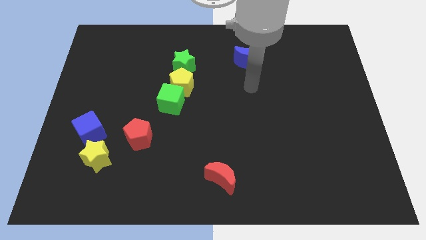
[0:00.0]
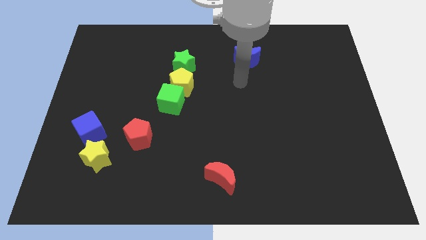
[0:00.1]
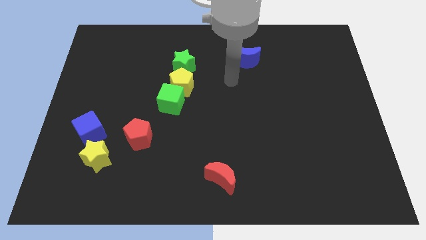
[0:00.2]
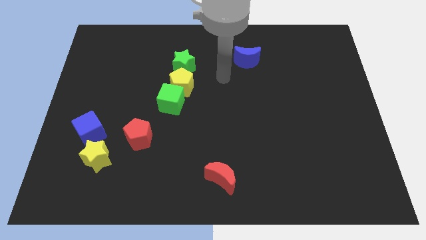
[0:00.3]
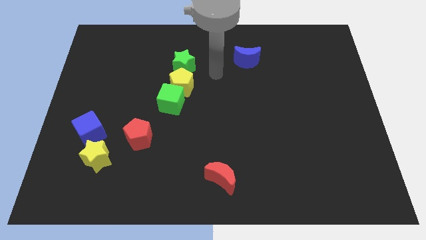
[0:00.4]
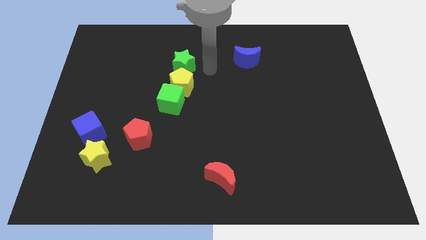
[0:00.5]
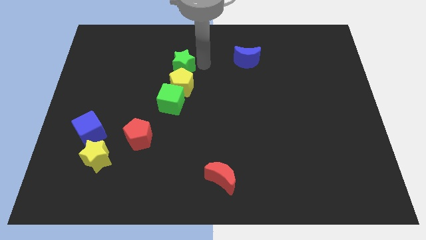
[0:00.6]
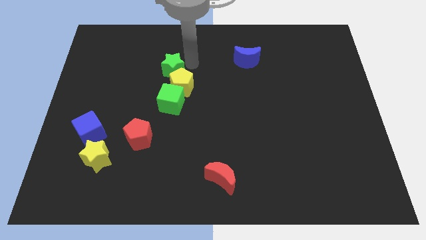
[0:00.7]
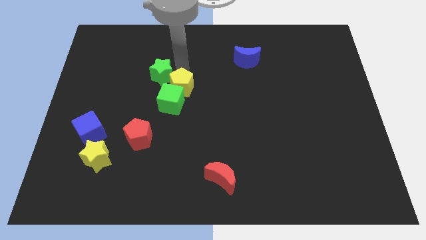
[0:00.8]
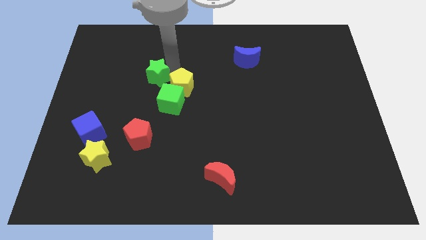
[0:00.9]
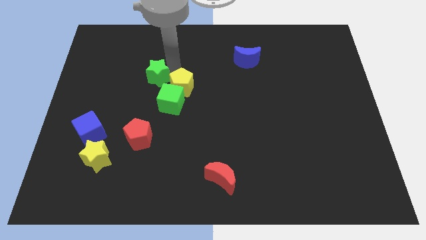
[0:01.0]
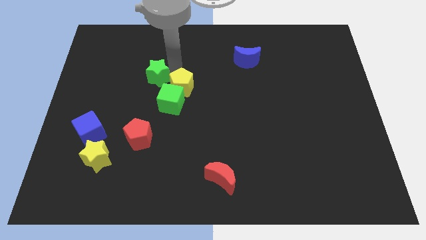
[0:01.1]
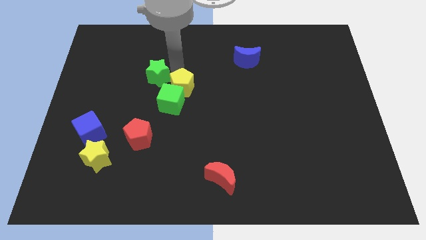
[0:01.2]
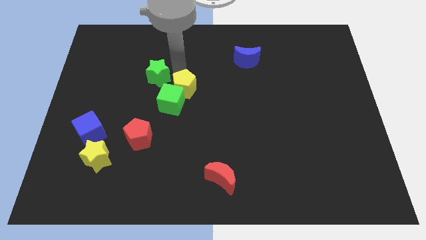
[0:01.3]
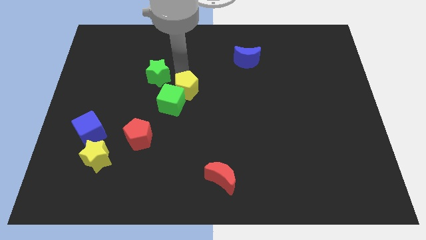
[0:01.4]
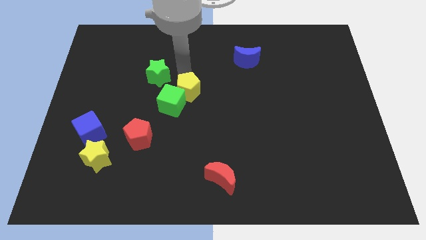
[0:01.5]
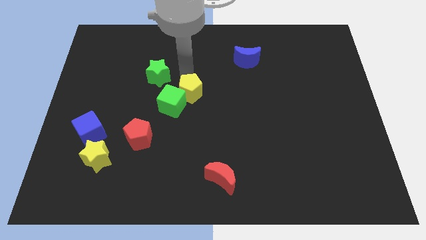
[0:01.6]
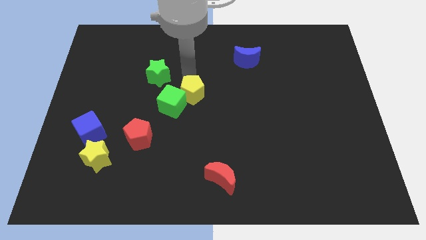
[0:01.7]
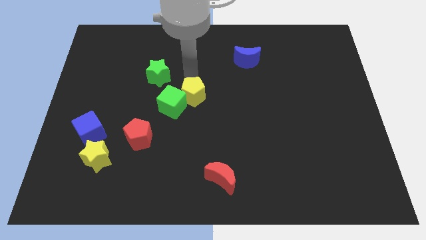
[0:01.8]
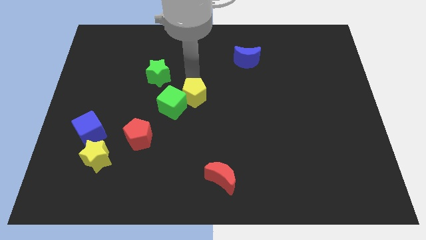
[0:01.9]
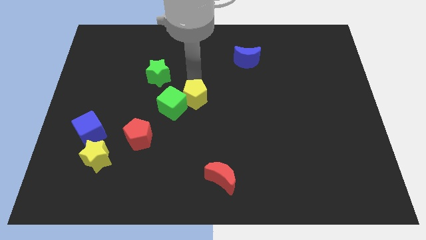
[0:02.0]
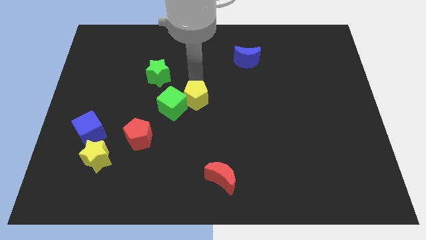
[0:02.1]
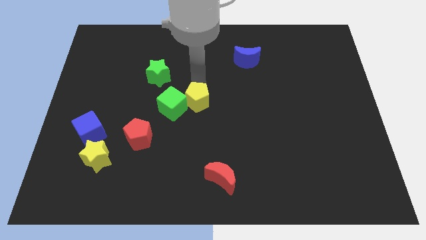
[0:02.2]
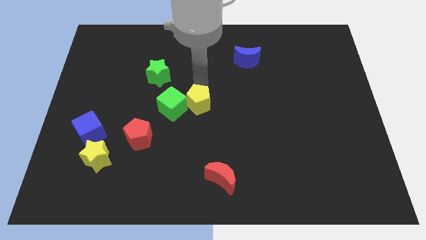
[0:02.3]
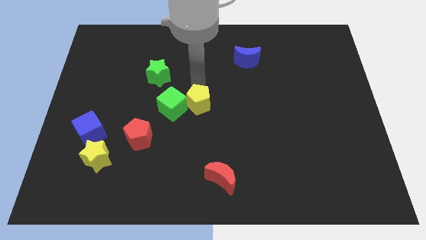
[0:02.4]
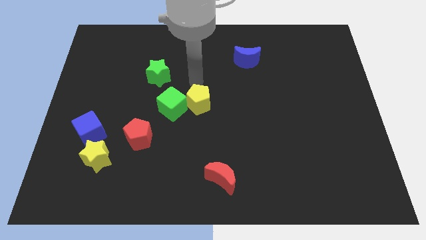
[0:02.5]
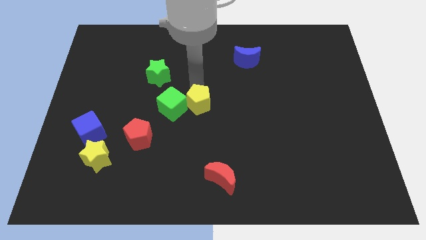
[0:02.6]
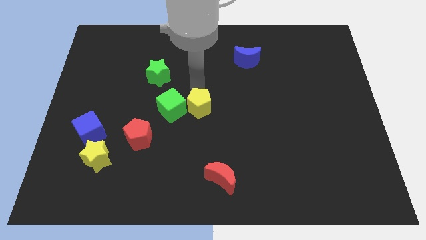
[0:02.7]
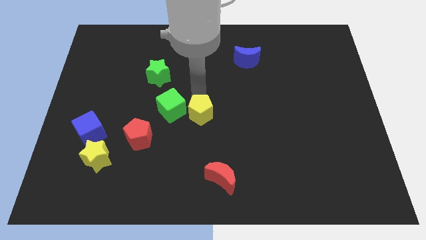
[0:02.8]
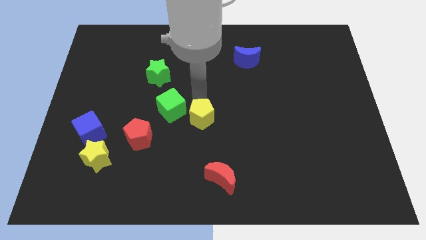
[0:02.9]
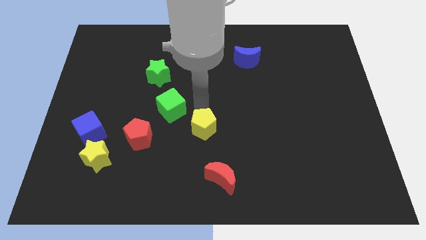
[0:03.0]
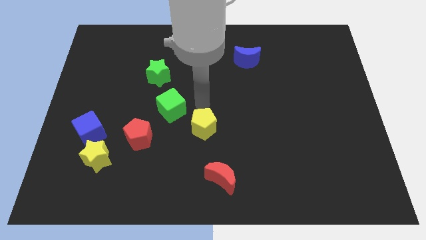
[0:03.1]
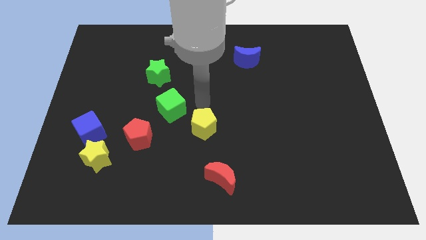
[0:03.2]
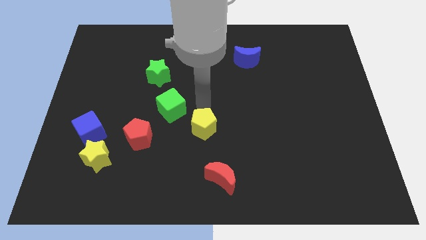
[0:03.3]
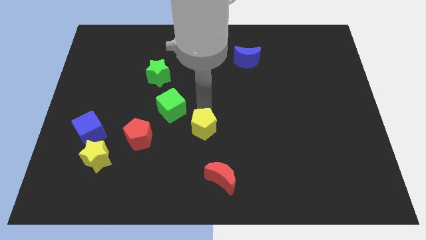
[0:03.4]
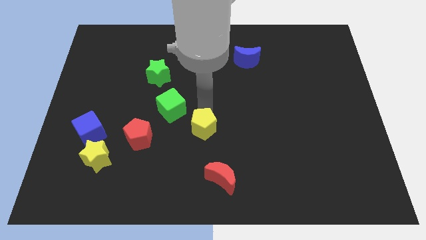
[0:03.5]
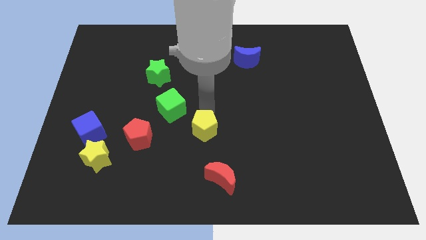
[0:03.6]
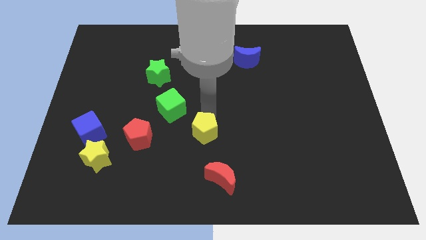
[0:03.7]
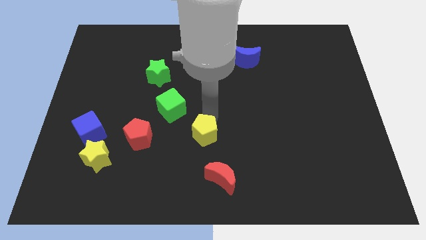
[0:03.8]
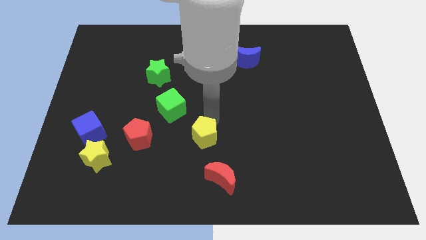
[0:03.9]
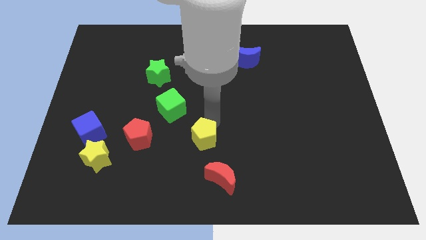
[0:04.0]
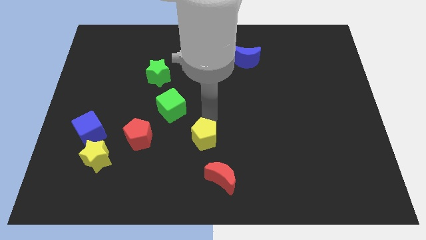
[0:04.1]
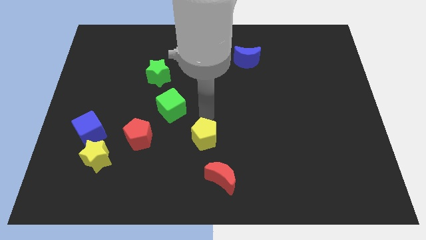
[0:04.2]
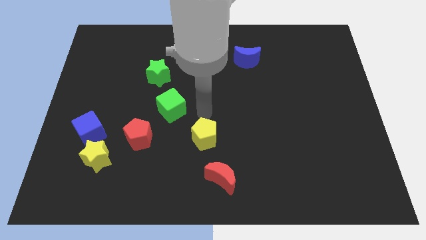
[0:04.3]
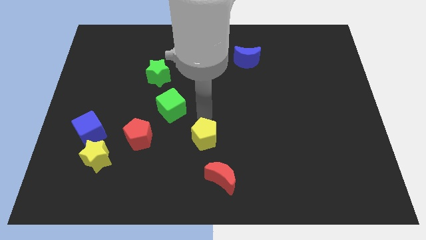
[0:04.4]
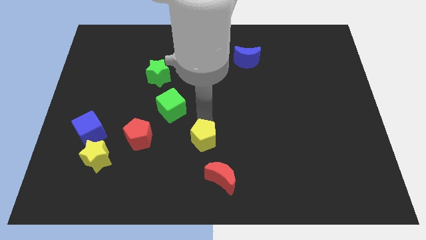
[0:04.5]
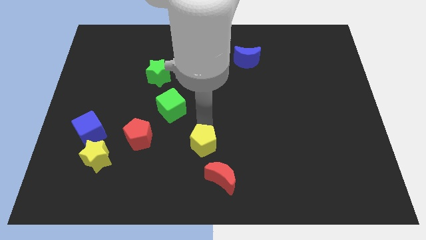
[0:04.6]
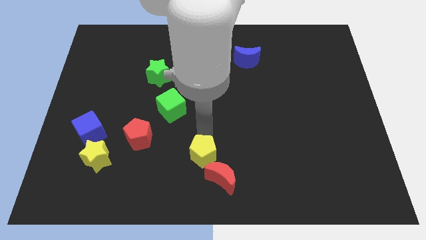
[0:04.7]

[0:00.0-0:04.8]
put the yellow pentagon to the bottom side

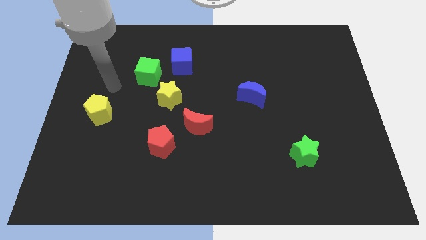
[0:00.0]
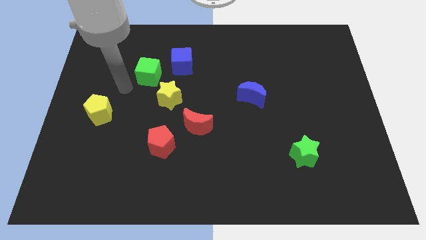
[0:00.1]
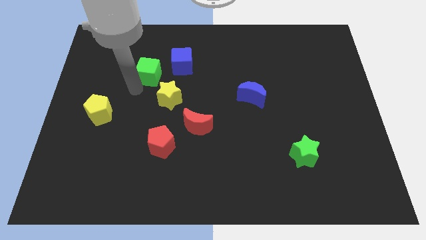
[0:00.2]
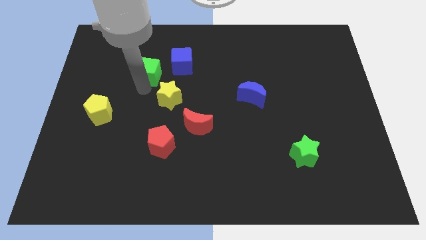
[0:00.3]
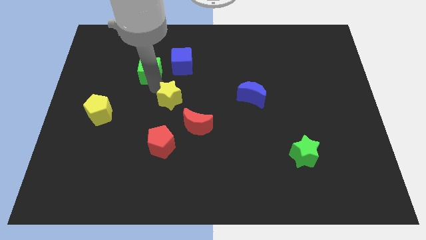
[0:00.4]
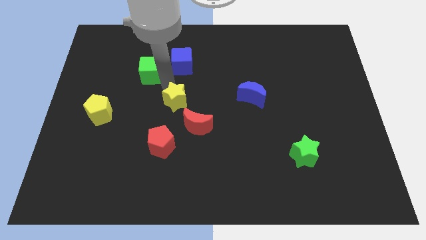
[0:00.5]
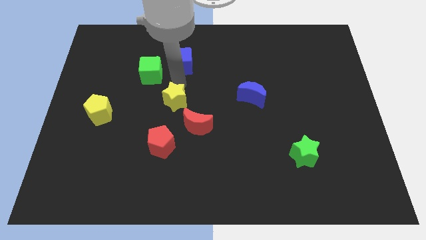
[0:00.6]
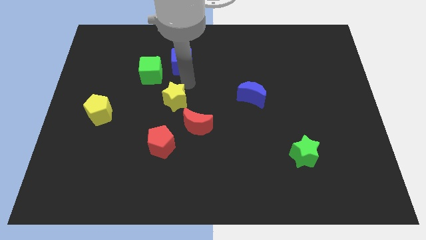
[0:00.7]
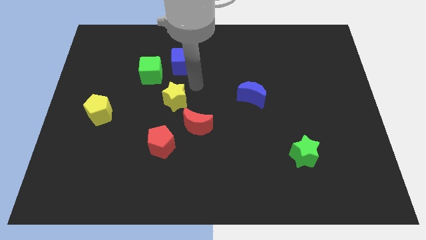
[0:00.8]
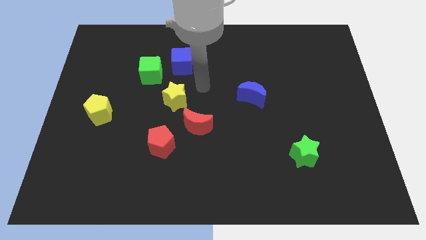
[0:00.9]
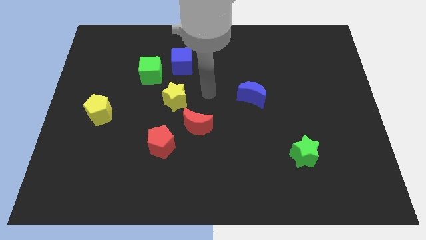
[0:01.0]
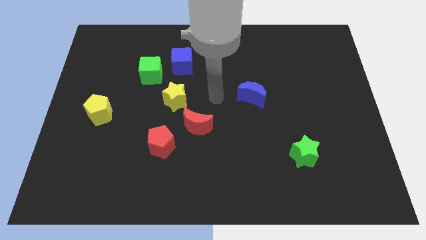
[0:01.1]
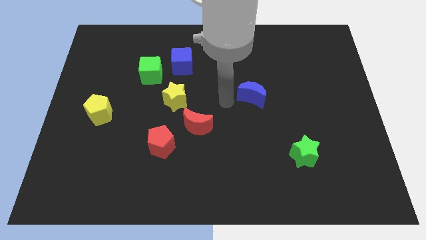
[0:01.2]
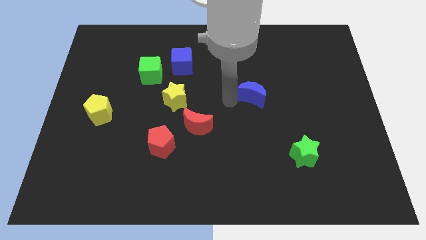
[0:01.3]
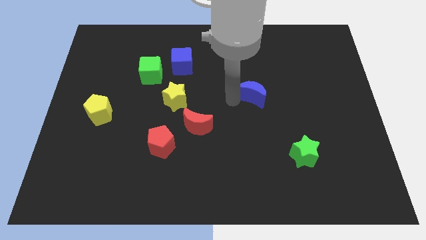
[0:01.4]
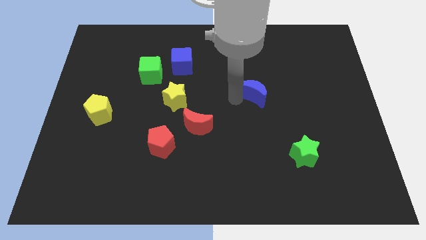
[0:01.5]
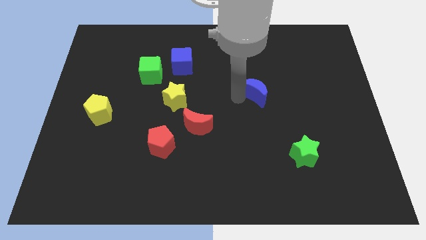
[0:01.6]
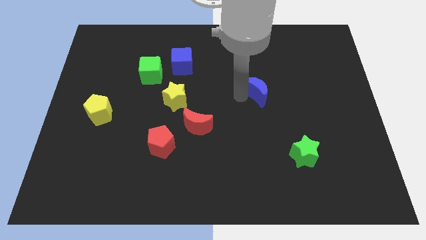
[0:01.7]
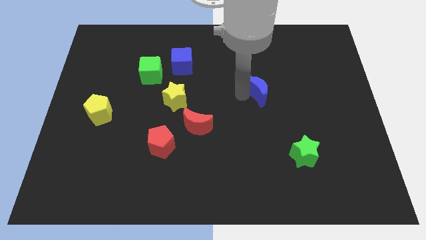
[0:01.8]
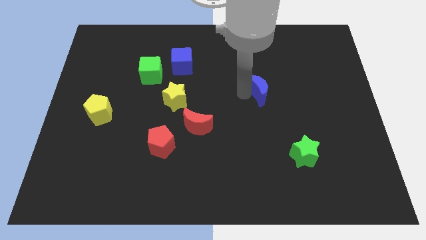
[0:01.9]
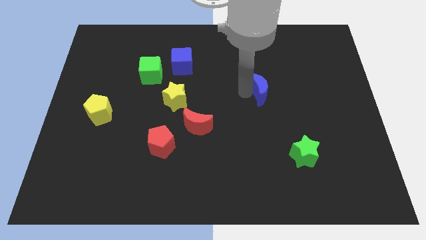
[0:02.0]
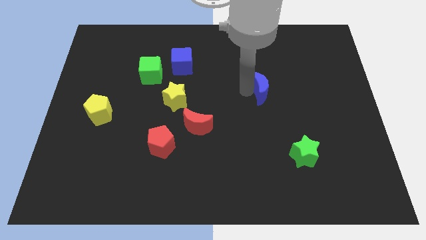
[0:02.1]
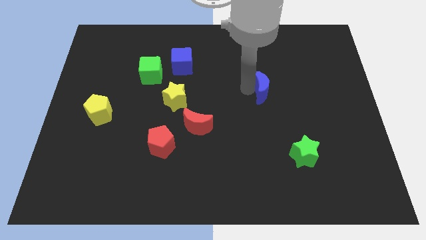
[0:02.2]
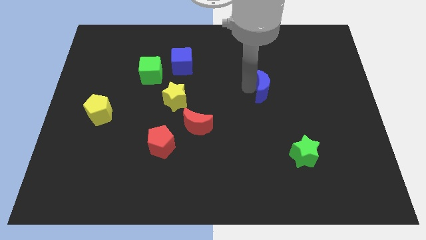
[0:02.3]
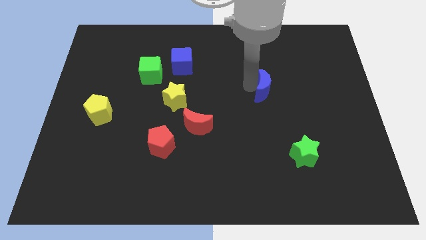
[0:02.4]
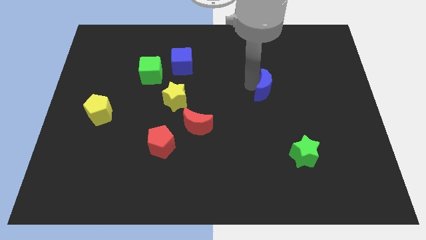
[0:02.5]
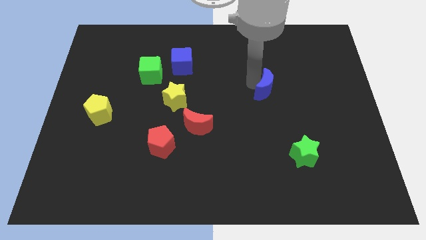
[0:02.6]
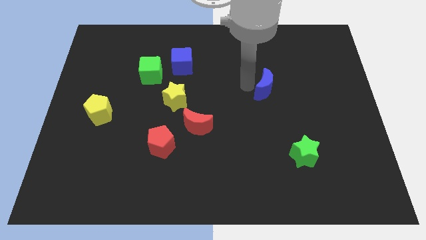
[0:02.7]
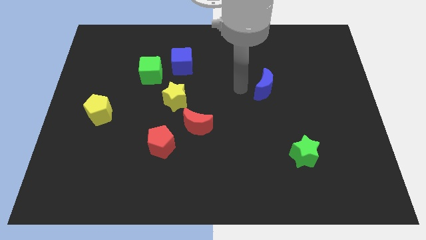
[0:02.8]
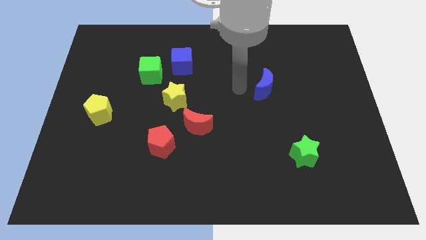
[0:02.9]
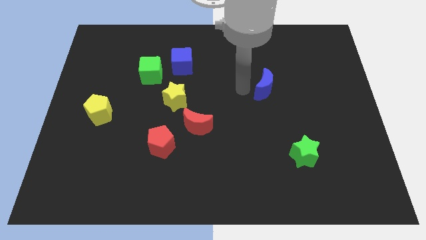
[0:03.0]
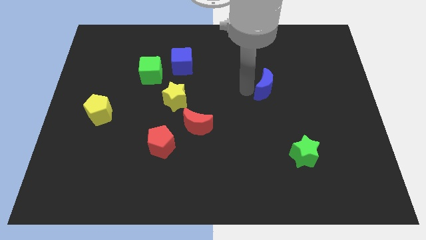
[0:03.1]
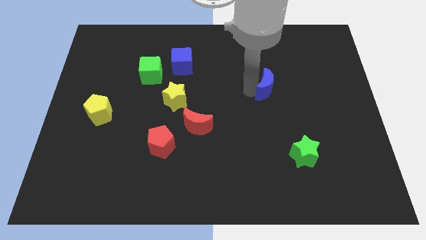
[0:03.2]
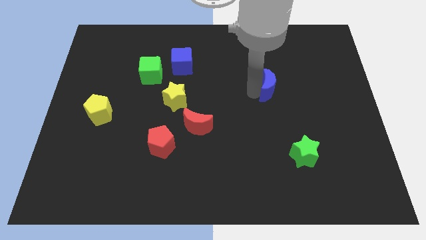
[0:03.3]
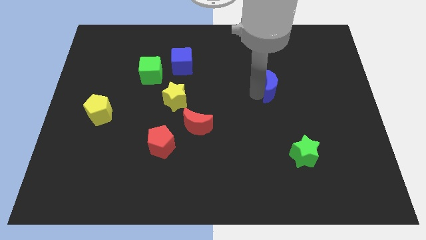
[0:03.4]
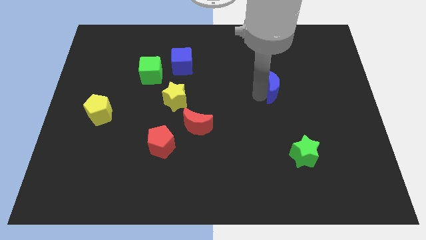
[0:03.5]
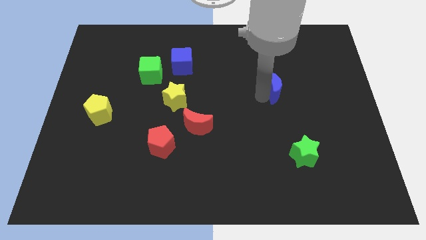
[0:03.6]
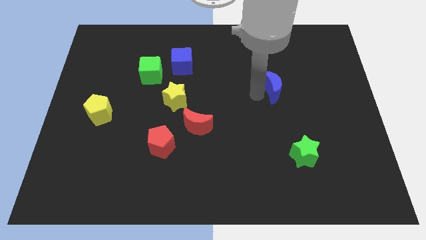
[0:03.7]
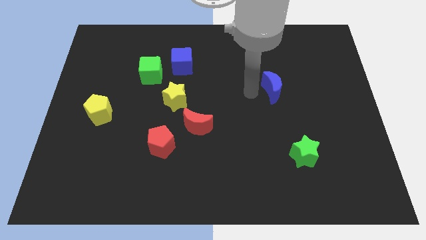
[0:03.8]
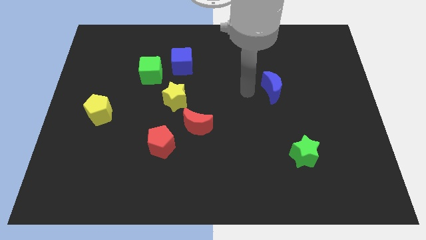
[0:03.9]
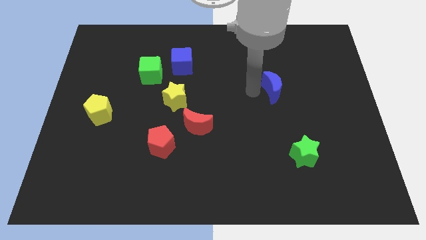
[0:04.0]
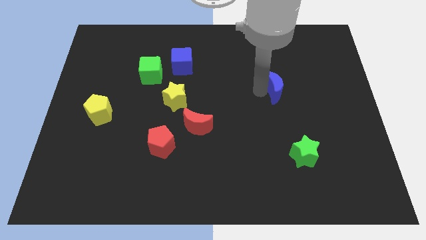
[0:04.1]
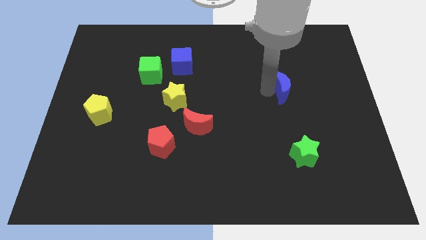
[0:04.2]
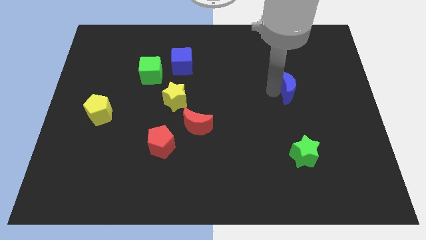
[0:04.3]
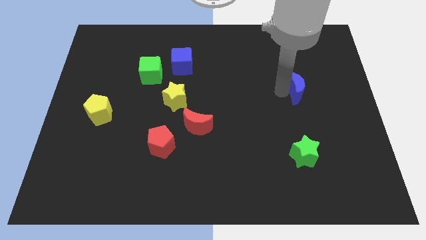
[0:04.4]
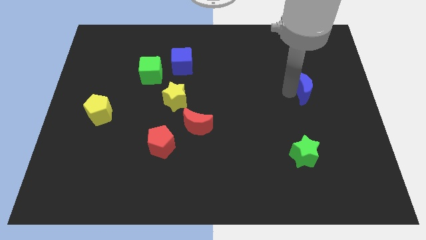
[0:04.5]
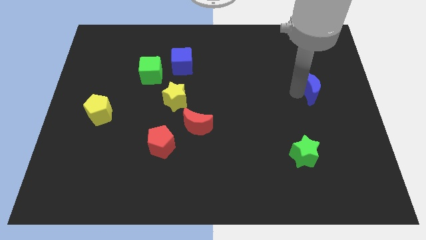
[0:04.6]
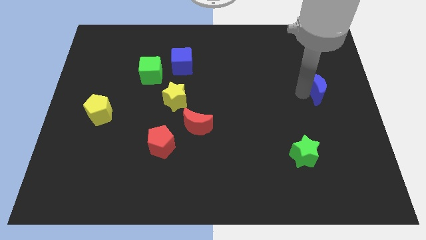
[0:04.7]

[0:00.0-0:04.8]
move the blue moon to the right side
